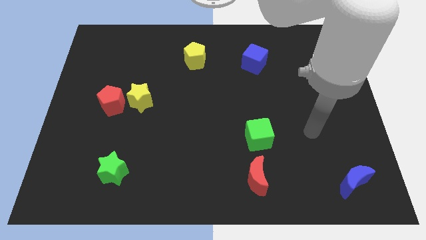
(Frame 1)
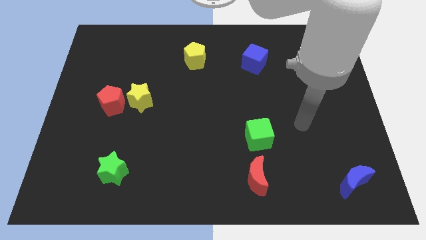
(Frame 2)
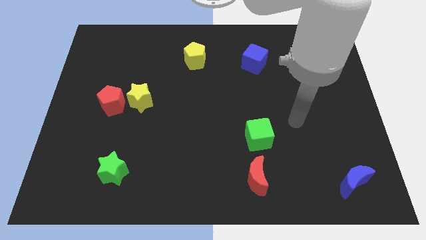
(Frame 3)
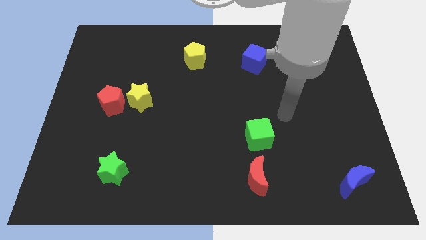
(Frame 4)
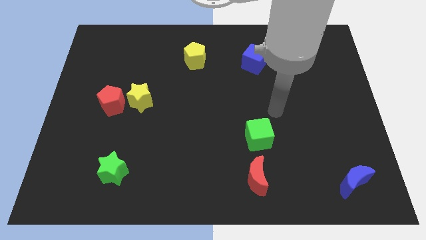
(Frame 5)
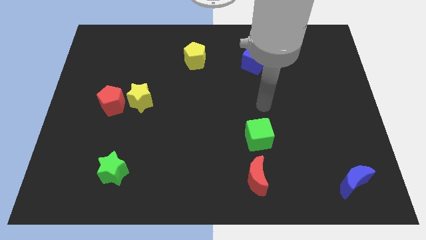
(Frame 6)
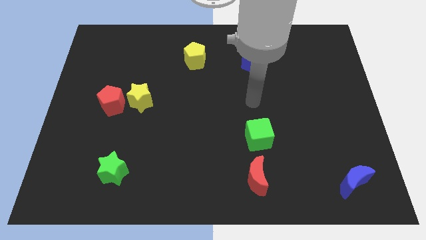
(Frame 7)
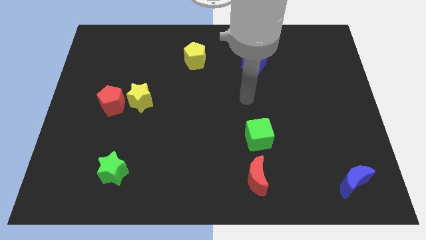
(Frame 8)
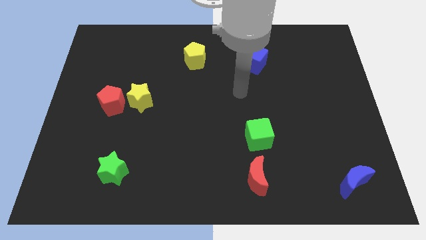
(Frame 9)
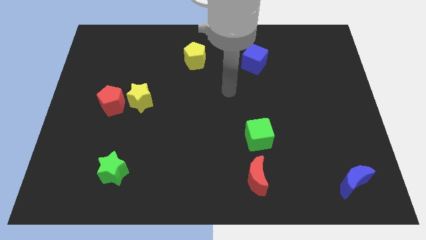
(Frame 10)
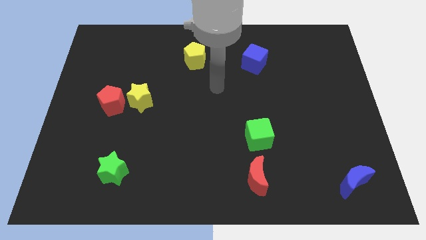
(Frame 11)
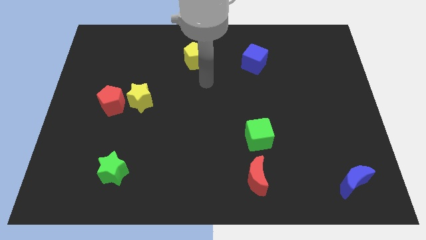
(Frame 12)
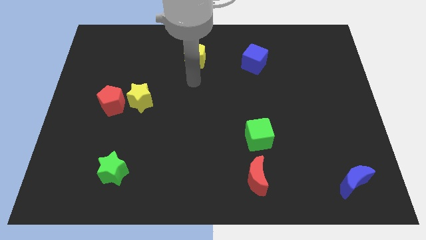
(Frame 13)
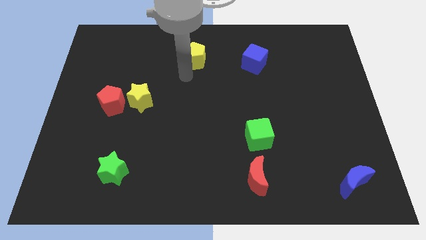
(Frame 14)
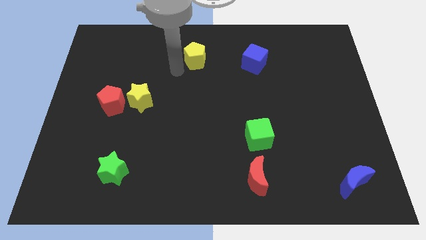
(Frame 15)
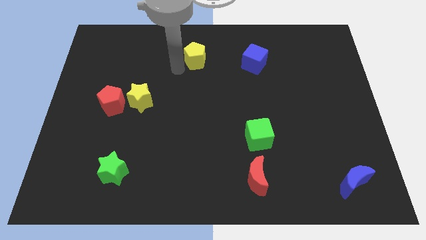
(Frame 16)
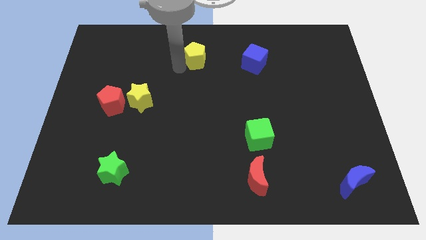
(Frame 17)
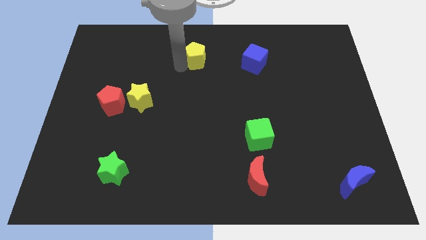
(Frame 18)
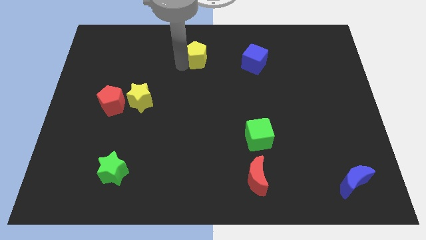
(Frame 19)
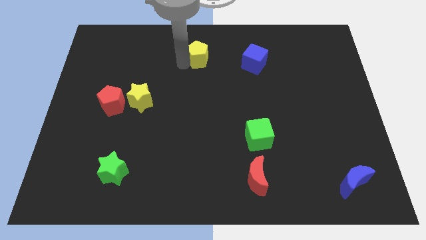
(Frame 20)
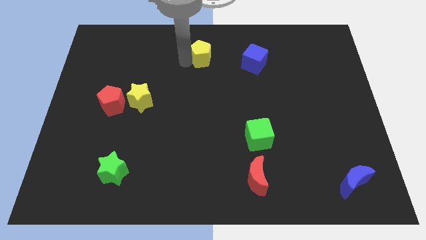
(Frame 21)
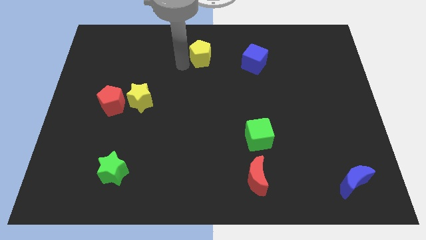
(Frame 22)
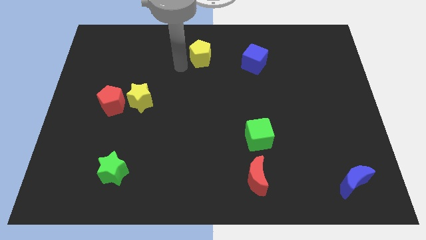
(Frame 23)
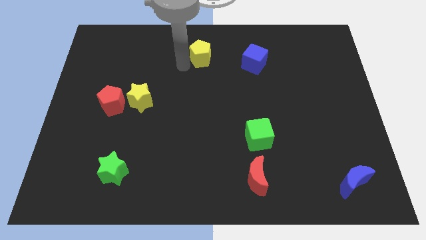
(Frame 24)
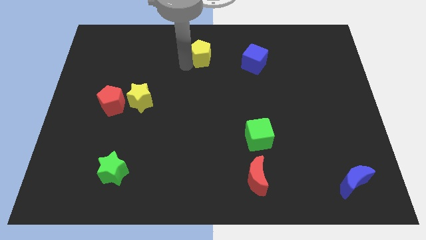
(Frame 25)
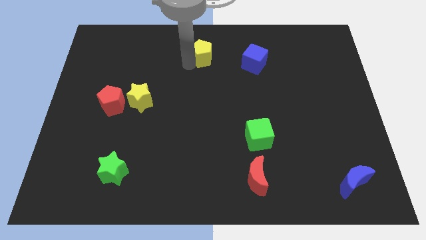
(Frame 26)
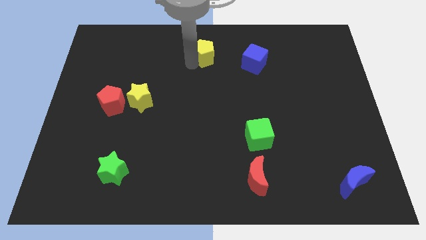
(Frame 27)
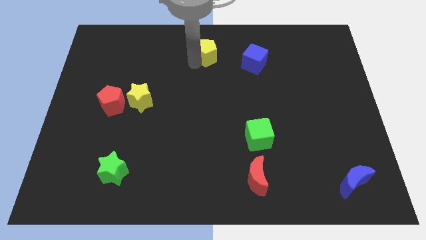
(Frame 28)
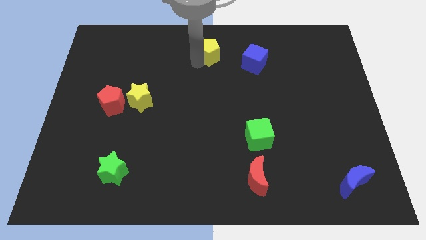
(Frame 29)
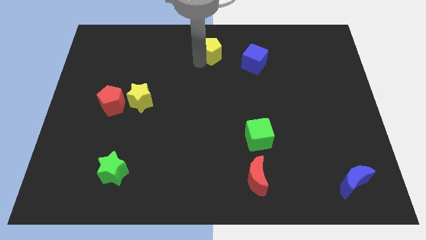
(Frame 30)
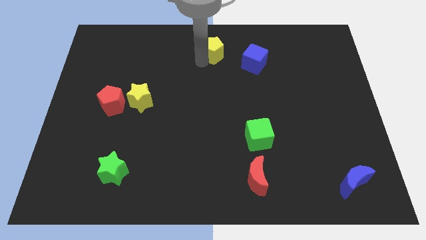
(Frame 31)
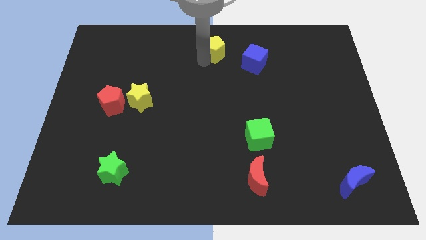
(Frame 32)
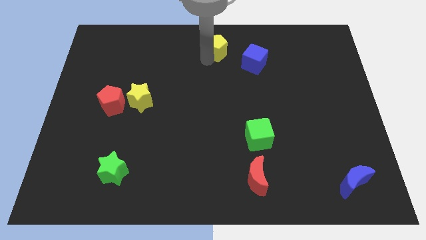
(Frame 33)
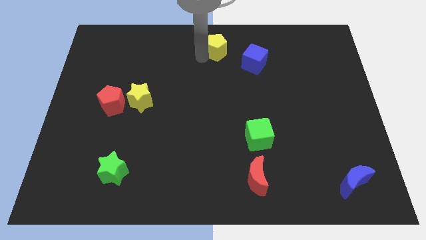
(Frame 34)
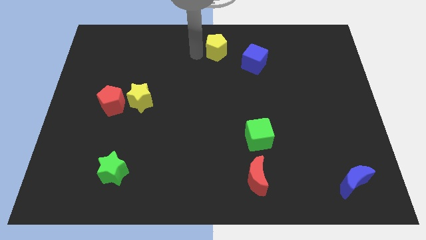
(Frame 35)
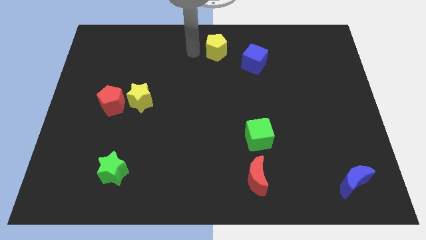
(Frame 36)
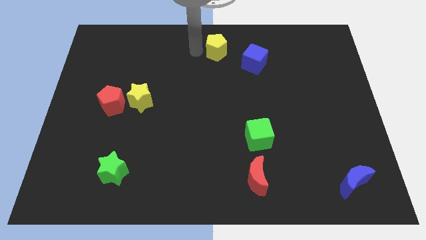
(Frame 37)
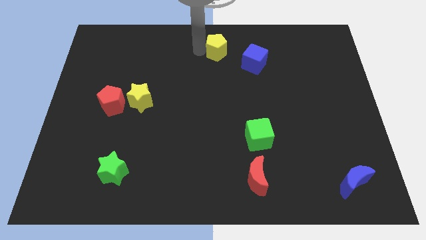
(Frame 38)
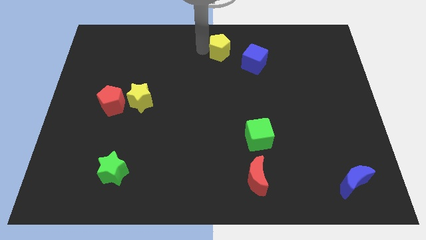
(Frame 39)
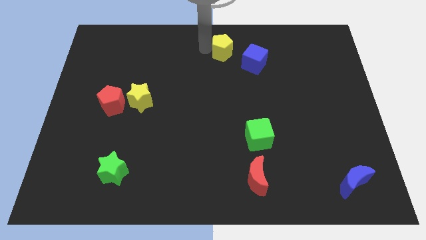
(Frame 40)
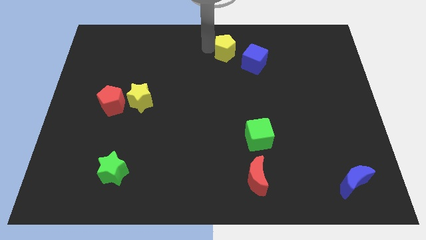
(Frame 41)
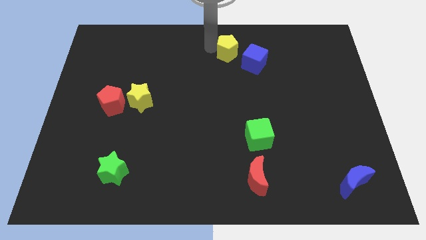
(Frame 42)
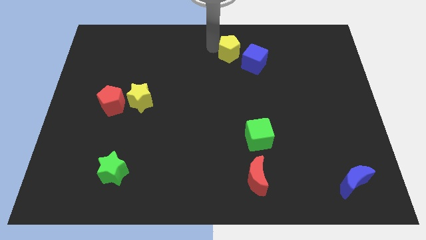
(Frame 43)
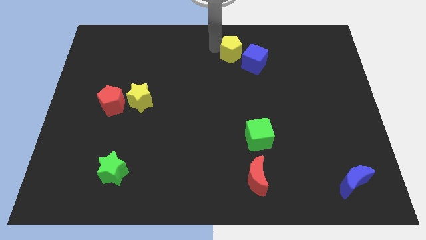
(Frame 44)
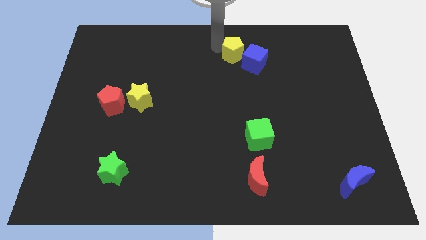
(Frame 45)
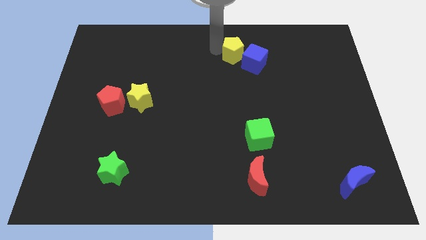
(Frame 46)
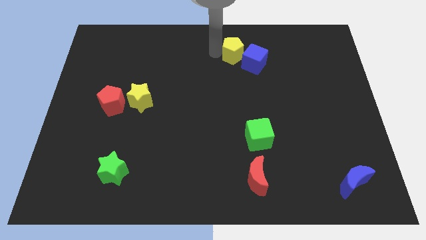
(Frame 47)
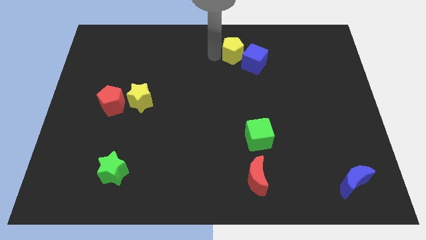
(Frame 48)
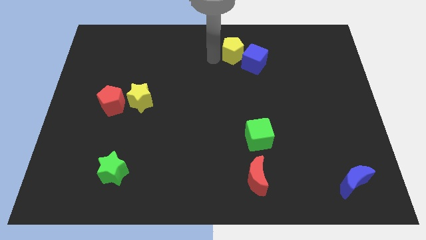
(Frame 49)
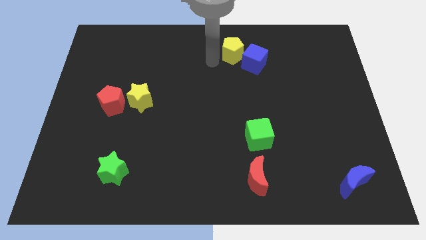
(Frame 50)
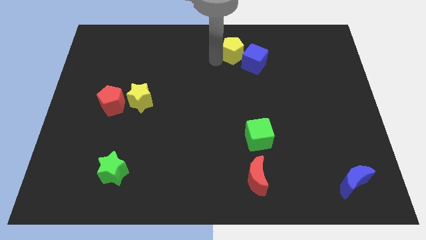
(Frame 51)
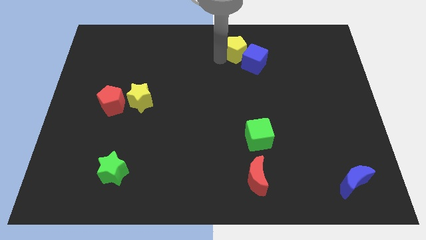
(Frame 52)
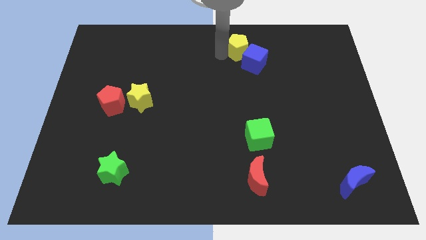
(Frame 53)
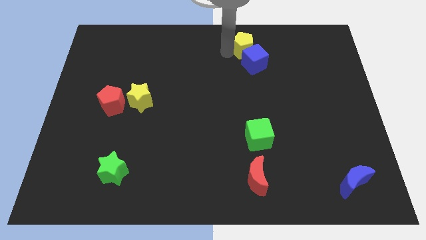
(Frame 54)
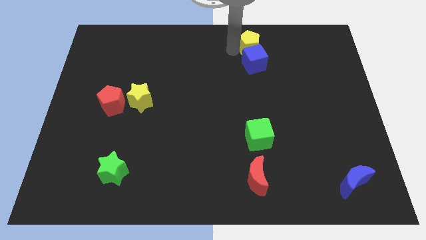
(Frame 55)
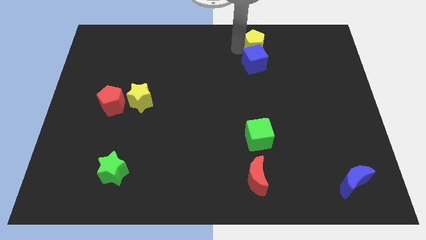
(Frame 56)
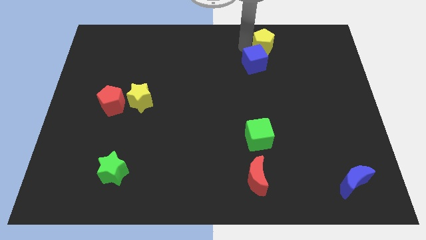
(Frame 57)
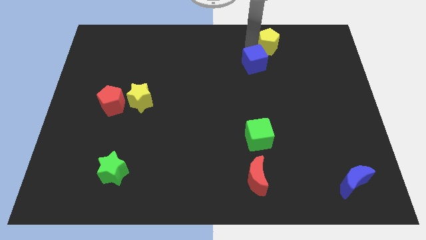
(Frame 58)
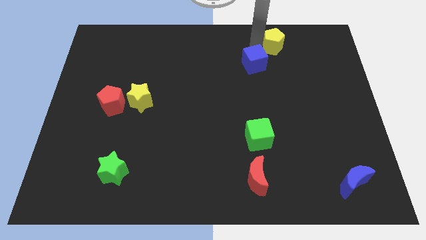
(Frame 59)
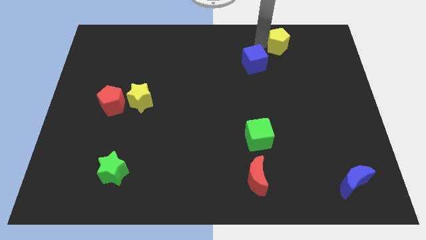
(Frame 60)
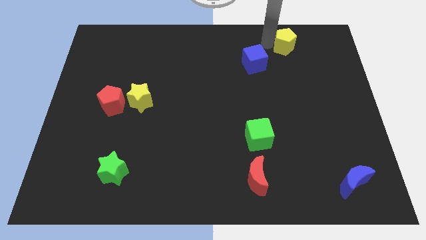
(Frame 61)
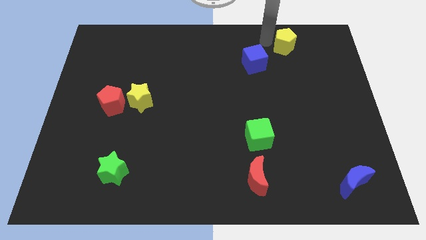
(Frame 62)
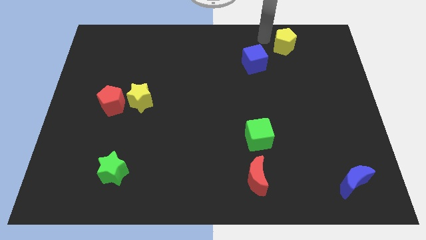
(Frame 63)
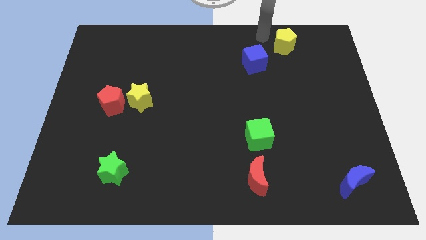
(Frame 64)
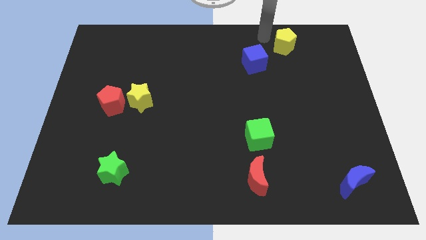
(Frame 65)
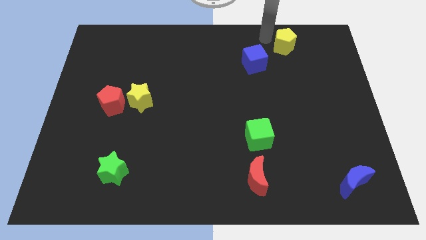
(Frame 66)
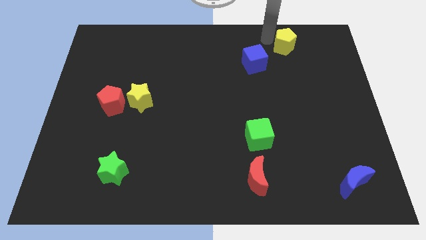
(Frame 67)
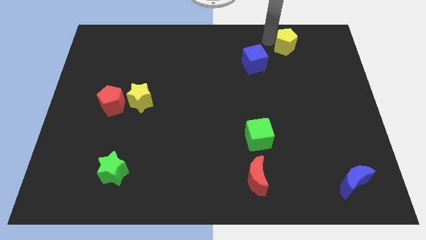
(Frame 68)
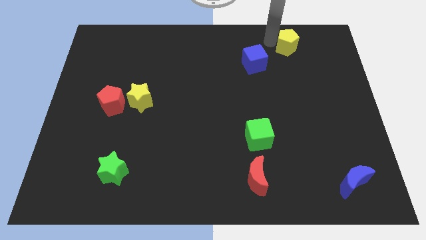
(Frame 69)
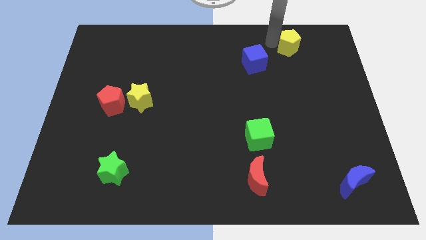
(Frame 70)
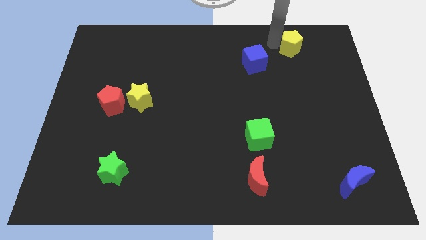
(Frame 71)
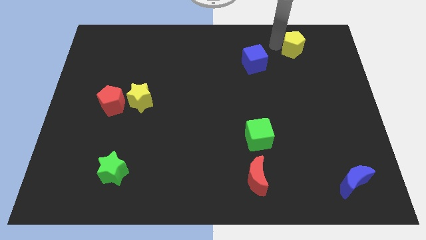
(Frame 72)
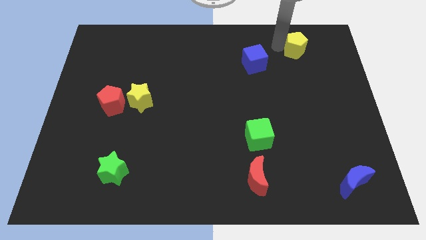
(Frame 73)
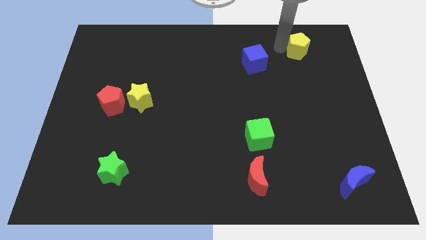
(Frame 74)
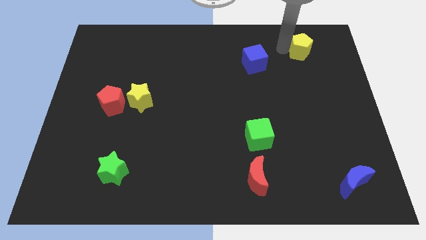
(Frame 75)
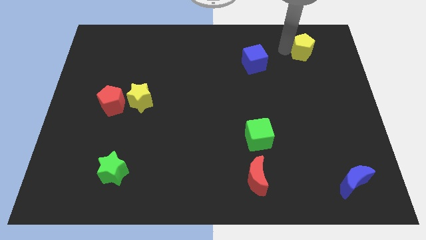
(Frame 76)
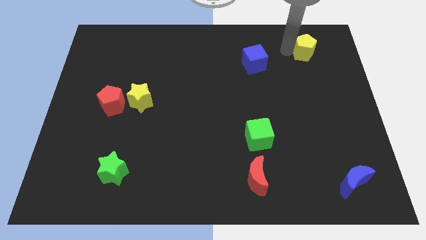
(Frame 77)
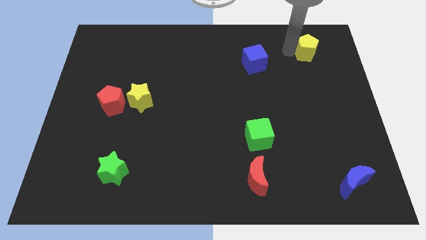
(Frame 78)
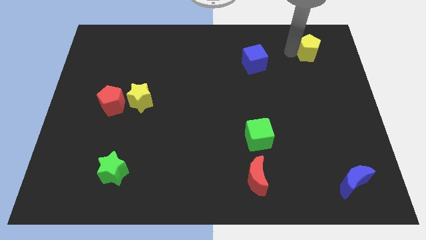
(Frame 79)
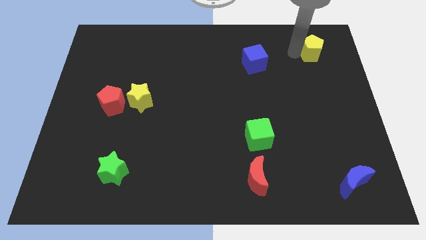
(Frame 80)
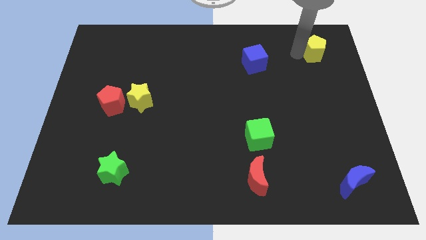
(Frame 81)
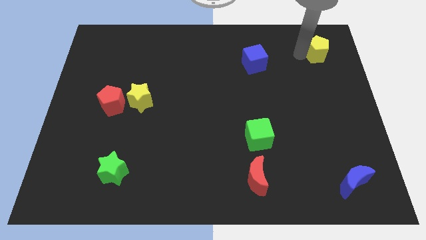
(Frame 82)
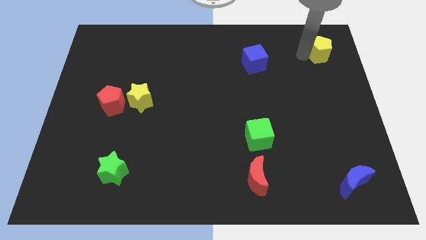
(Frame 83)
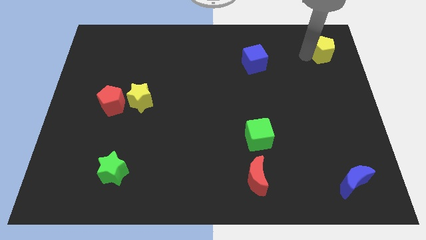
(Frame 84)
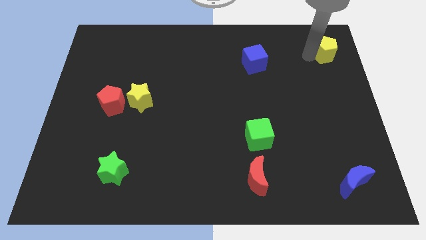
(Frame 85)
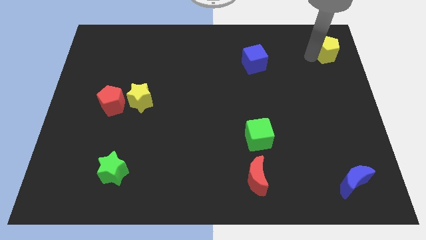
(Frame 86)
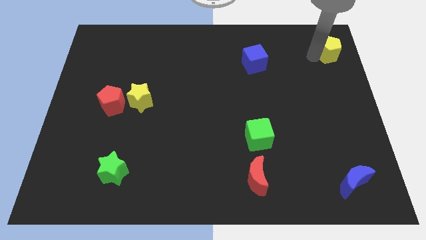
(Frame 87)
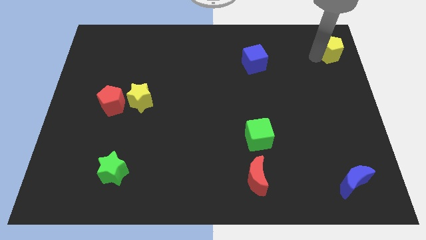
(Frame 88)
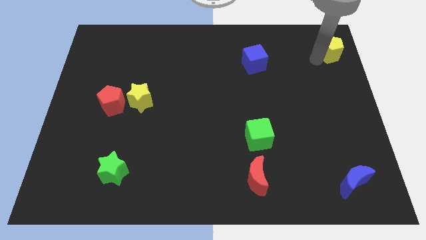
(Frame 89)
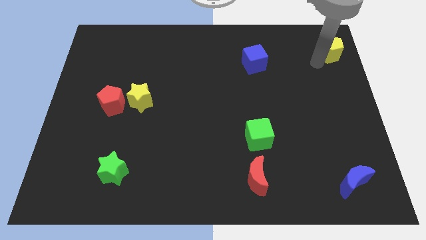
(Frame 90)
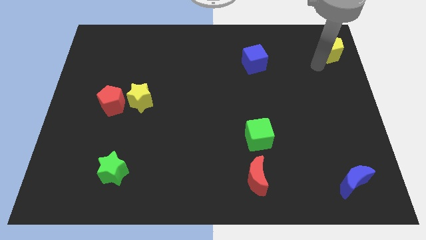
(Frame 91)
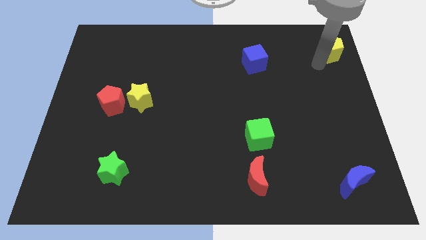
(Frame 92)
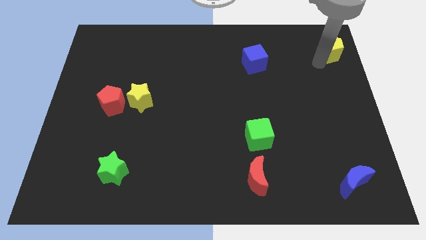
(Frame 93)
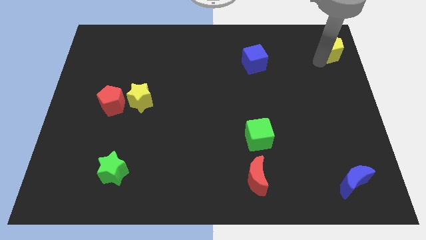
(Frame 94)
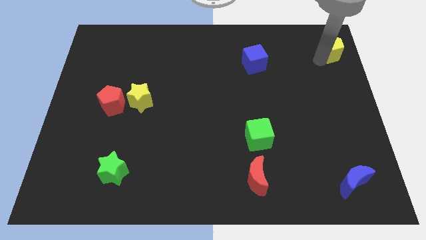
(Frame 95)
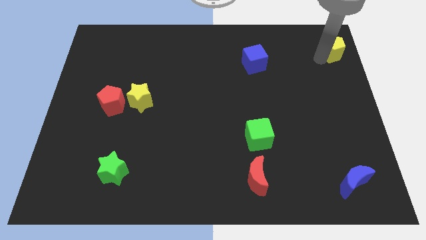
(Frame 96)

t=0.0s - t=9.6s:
move the yellow pentagon to the upper right corner
